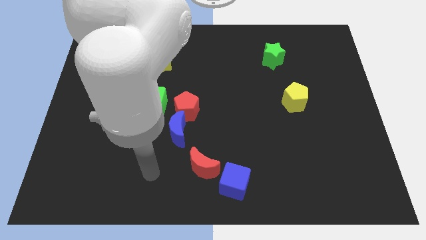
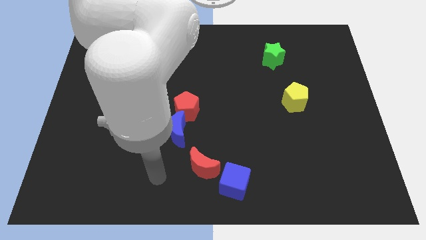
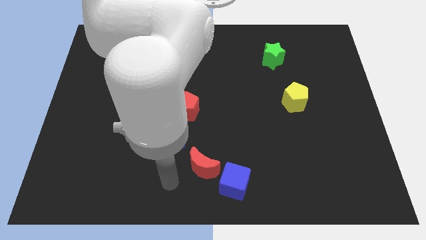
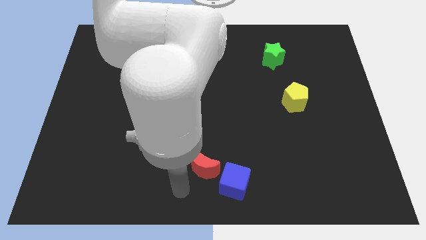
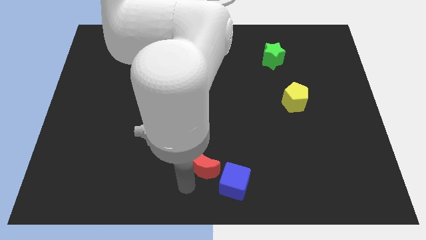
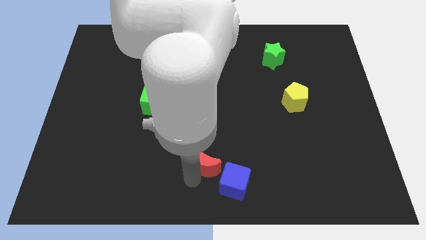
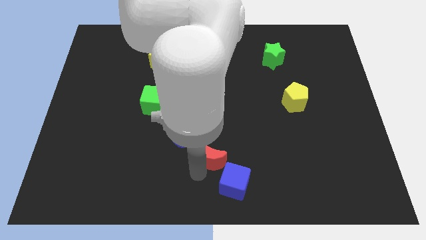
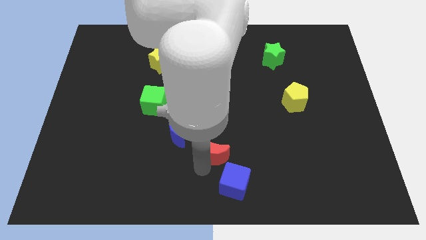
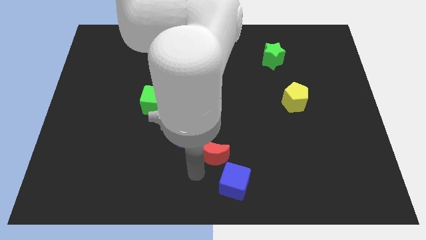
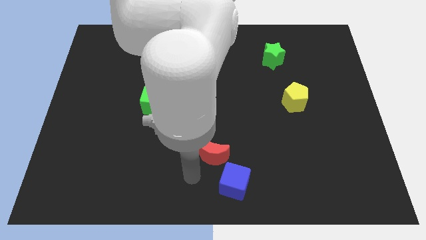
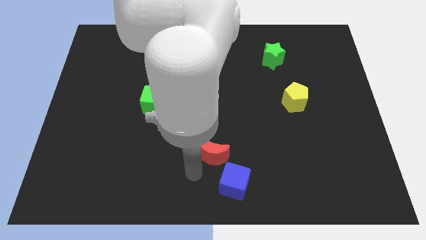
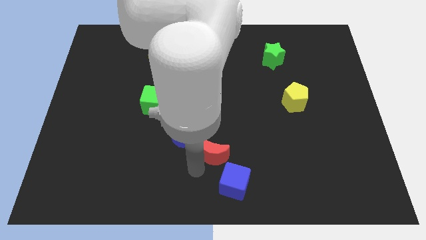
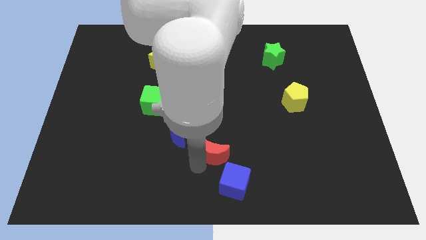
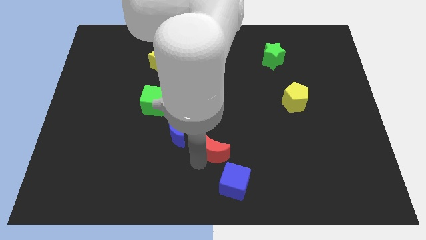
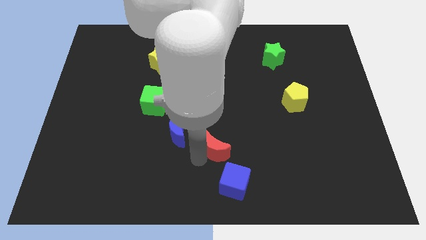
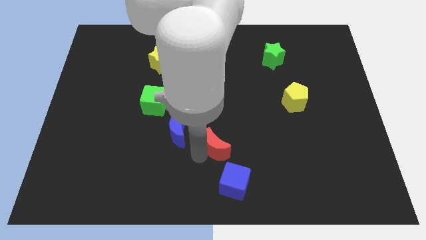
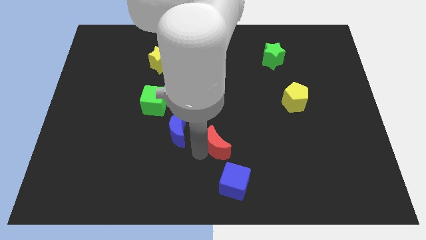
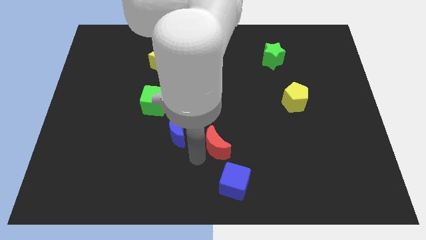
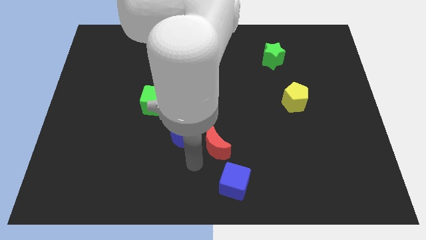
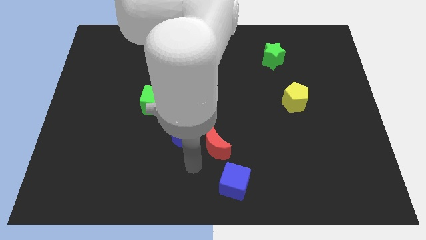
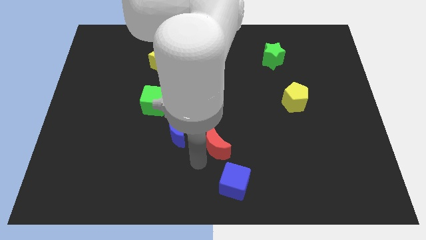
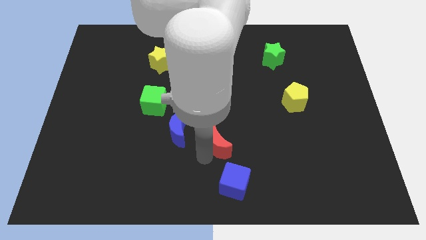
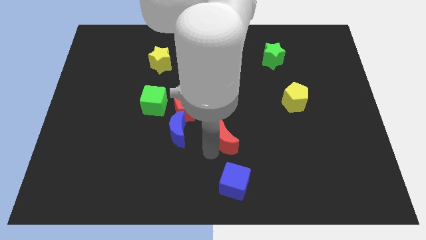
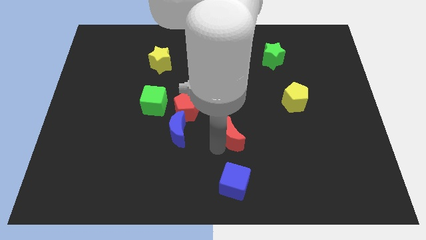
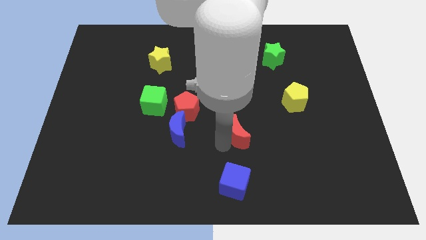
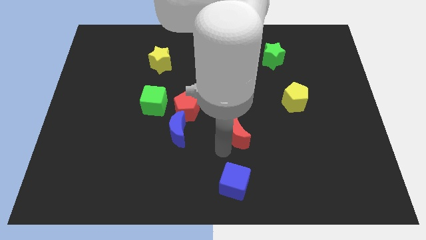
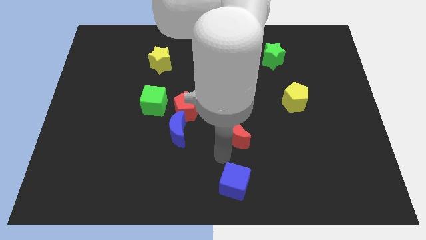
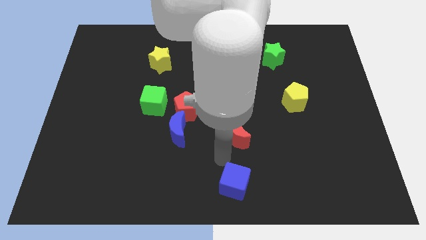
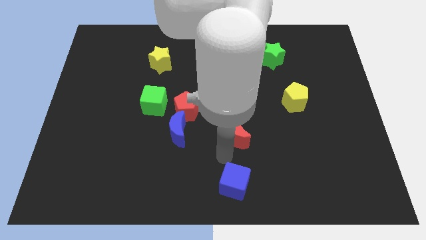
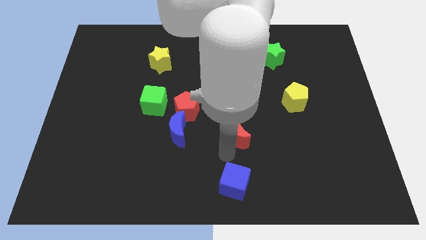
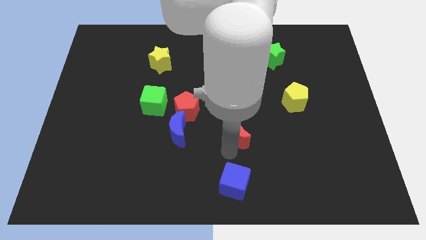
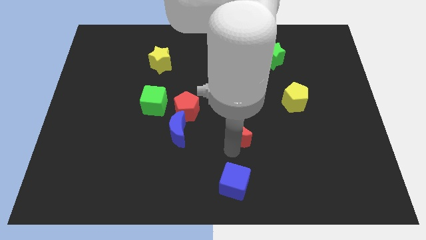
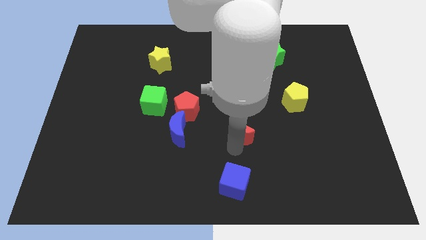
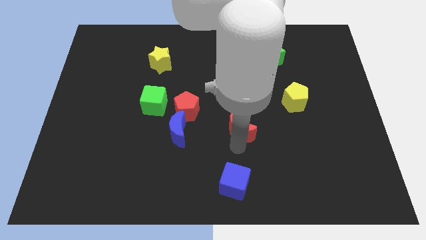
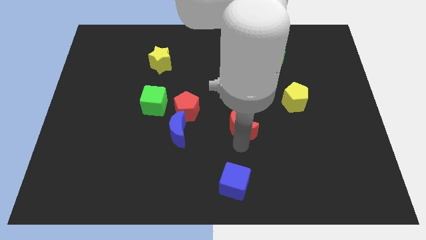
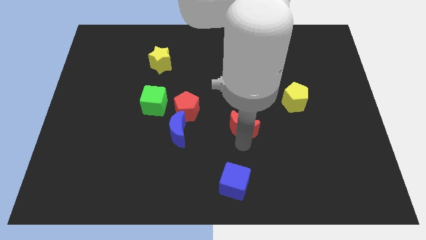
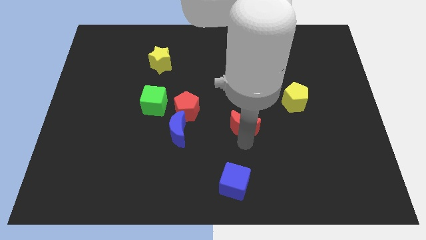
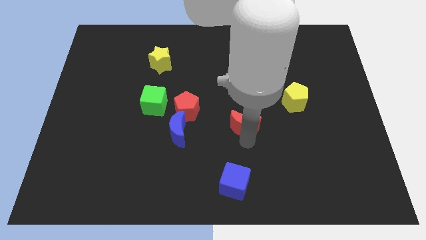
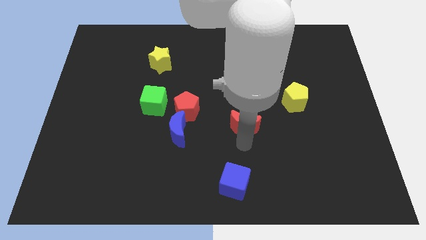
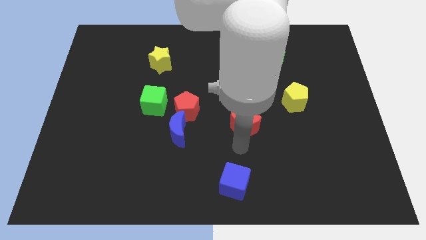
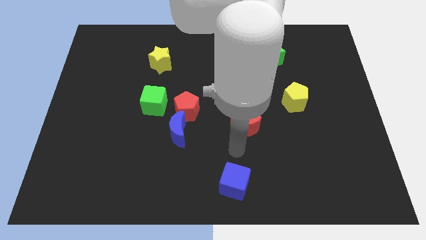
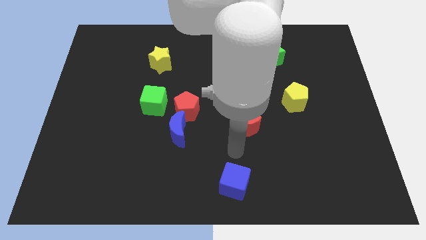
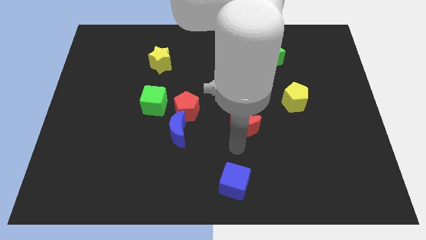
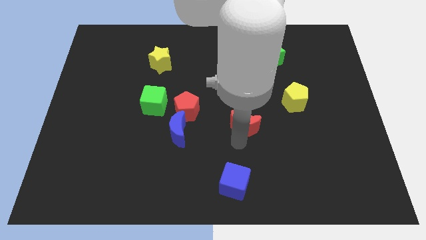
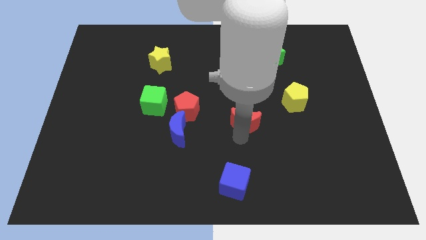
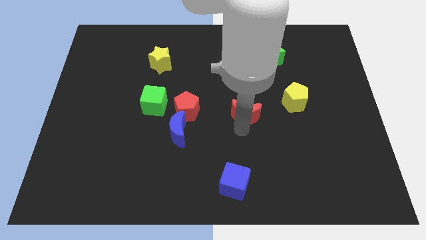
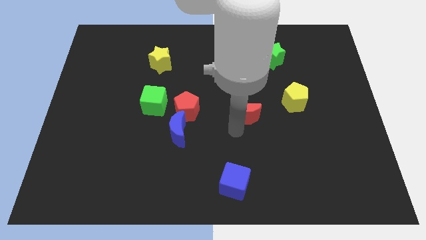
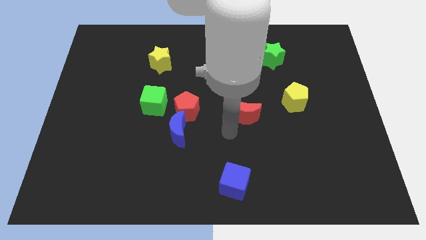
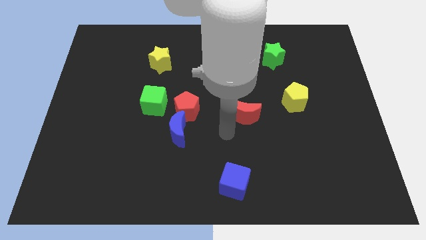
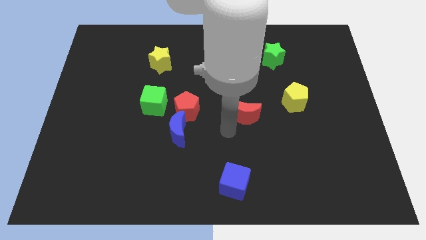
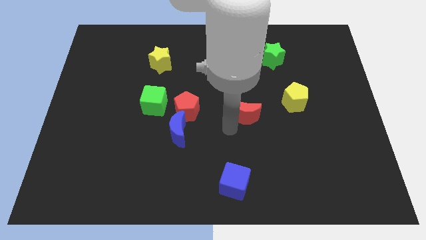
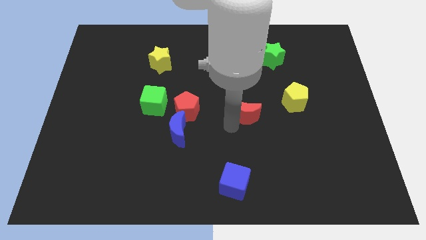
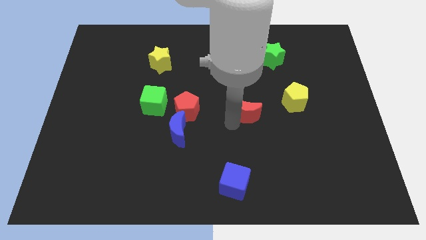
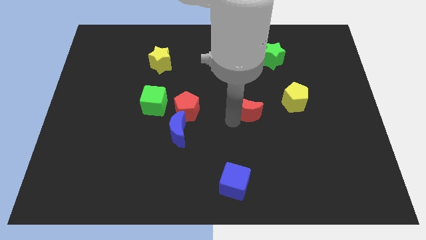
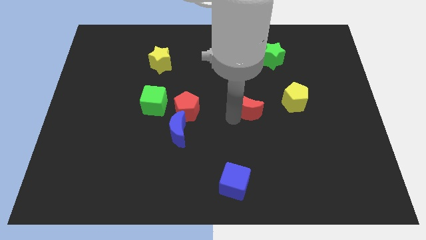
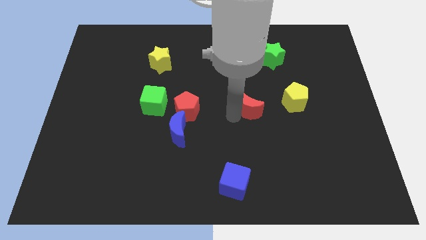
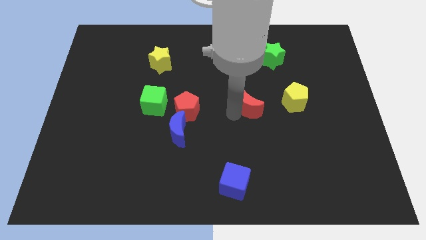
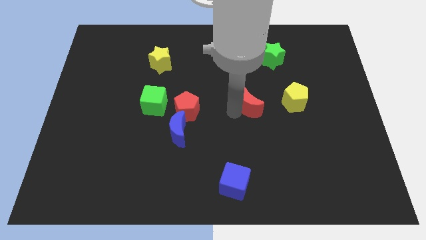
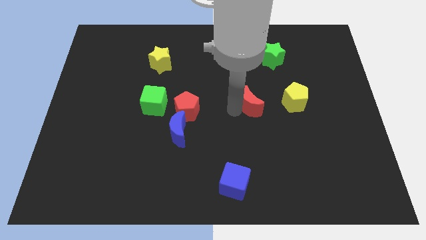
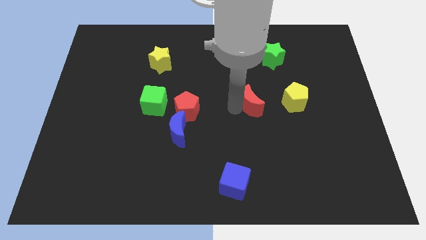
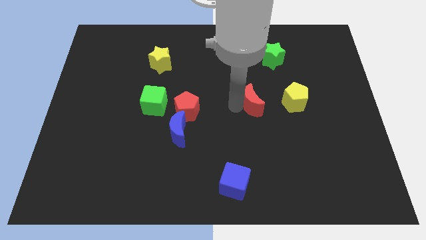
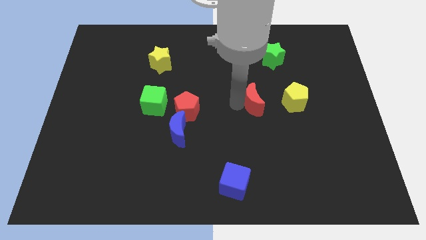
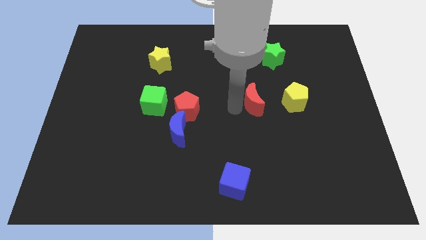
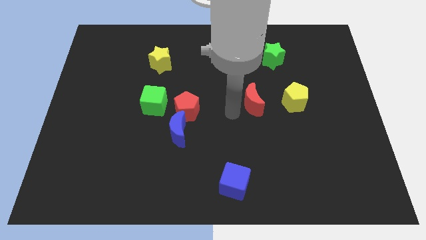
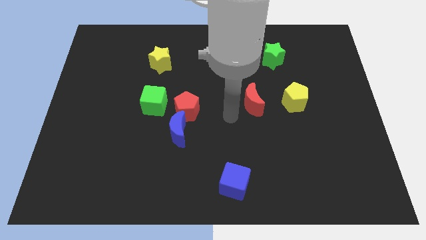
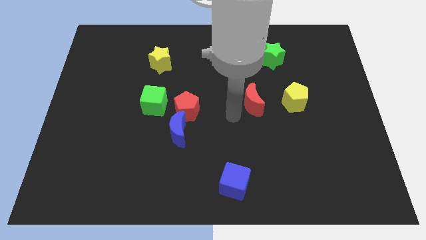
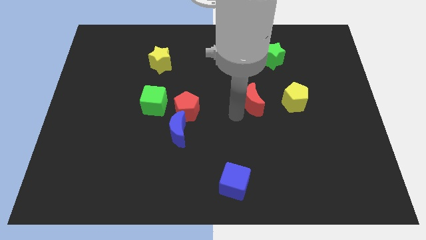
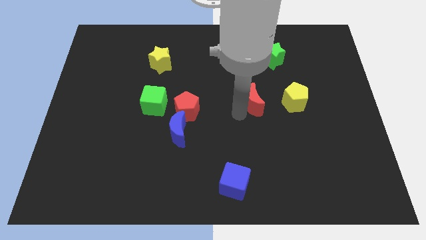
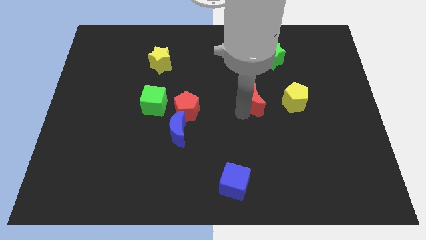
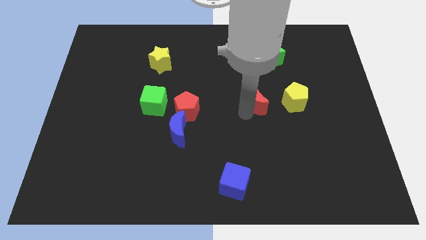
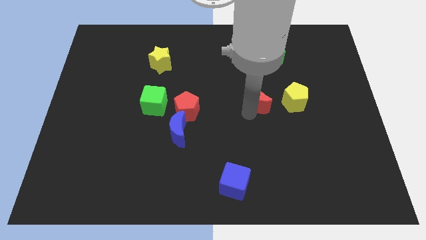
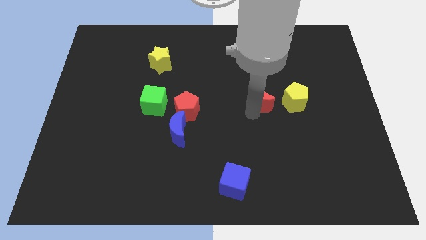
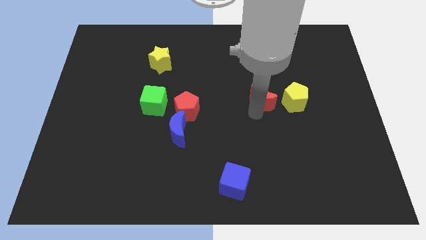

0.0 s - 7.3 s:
move the red moon below the green star
